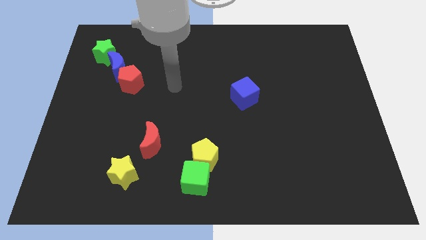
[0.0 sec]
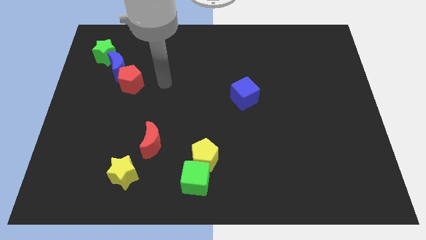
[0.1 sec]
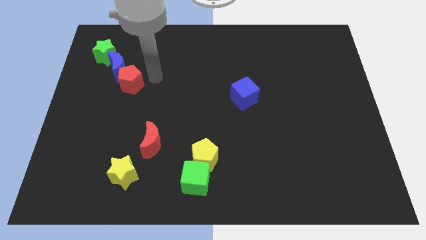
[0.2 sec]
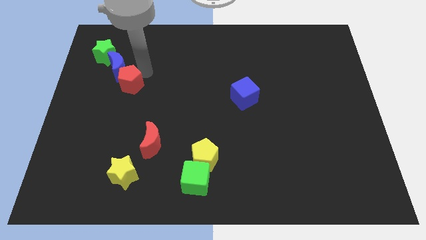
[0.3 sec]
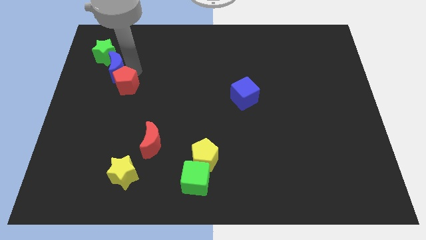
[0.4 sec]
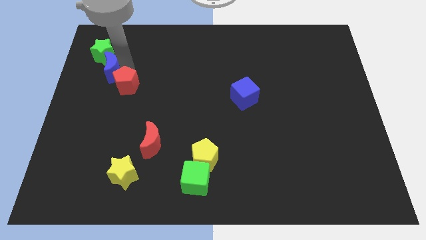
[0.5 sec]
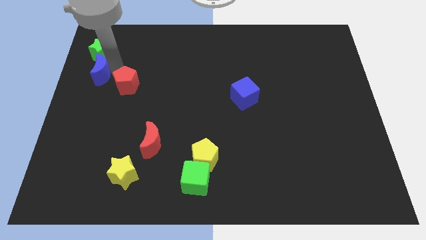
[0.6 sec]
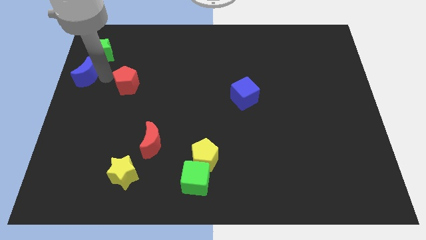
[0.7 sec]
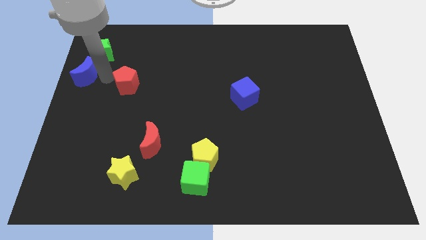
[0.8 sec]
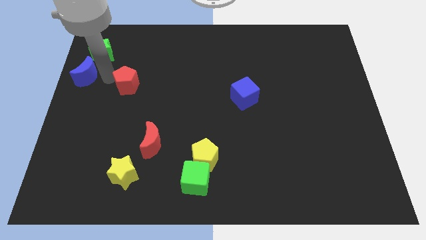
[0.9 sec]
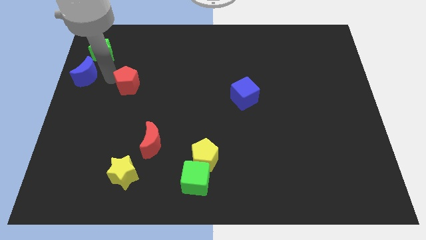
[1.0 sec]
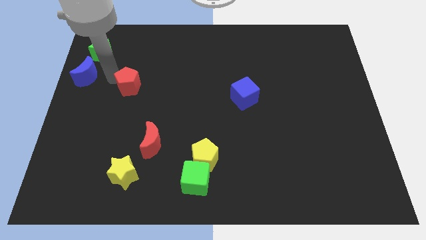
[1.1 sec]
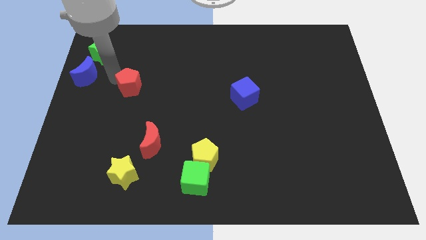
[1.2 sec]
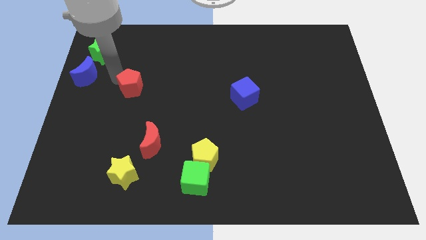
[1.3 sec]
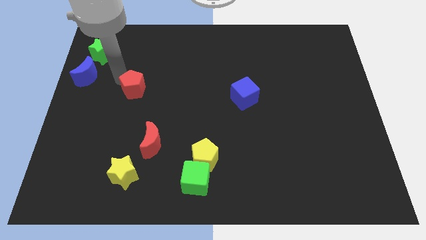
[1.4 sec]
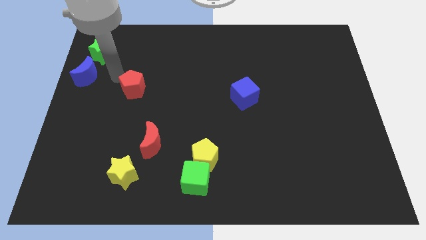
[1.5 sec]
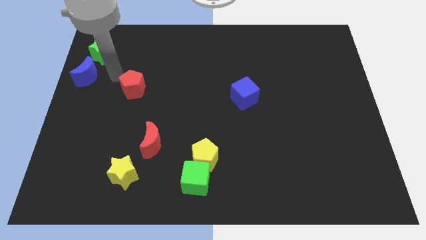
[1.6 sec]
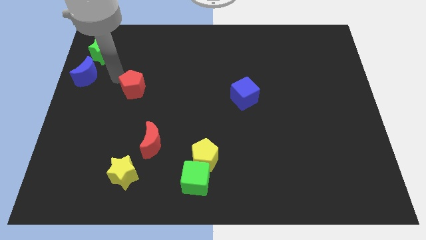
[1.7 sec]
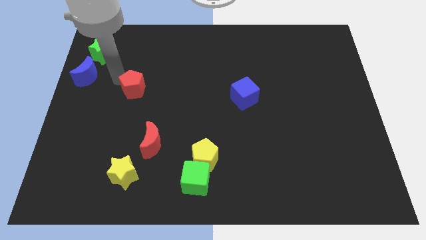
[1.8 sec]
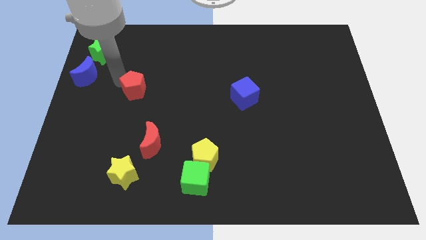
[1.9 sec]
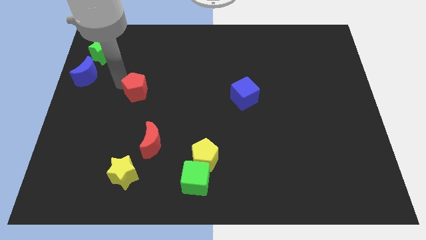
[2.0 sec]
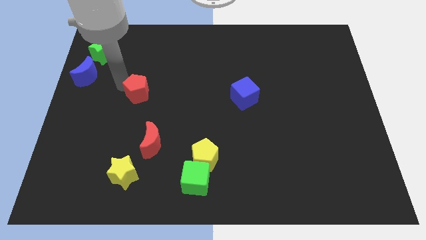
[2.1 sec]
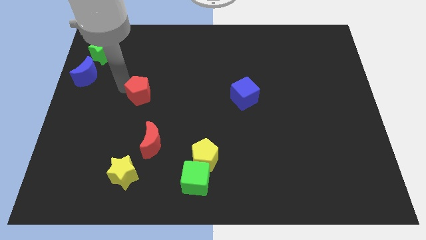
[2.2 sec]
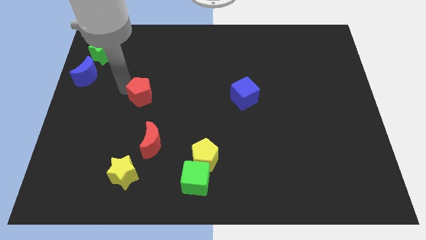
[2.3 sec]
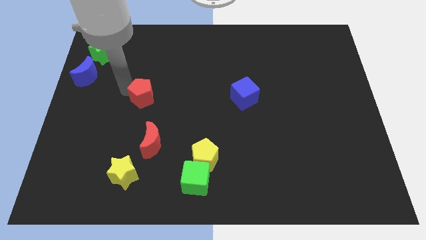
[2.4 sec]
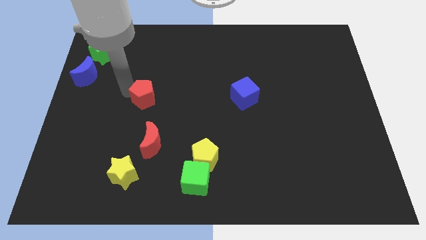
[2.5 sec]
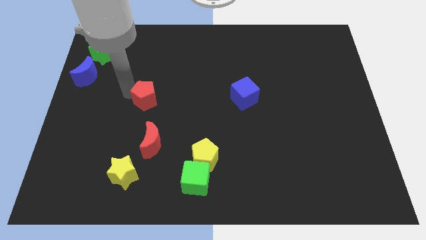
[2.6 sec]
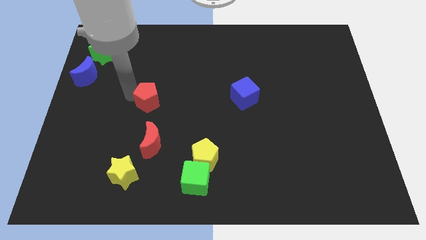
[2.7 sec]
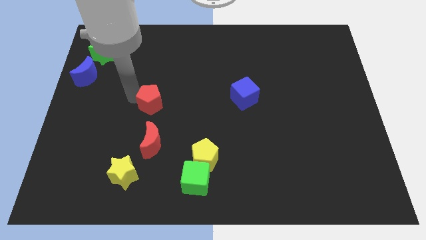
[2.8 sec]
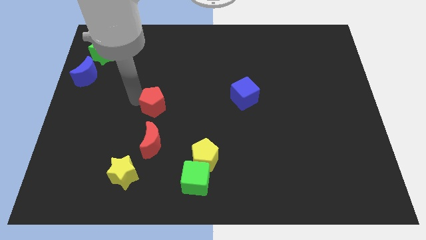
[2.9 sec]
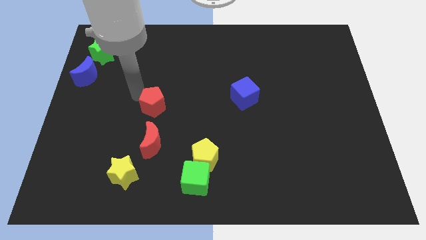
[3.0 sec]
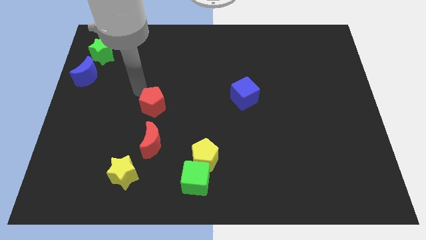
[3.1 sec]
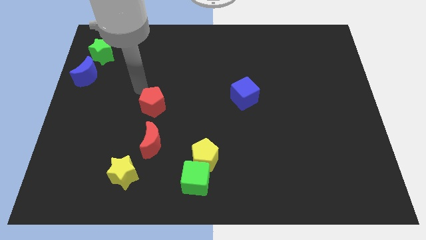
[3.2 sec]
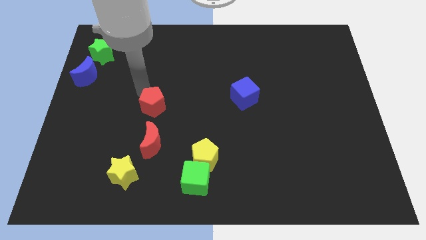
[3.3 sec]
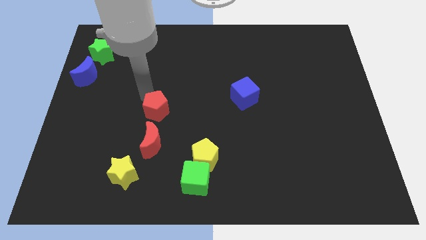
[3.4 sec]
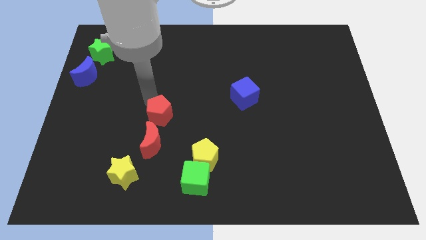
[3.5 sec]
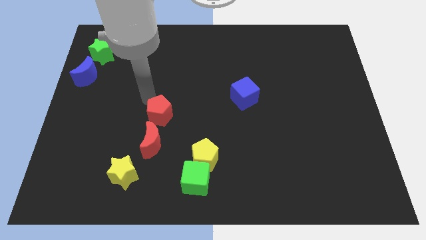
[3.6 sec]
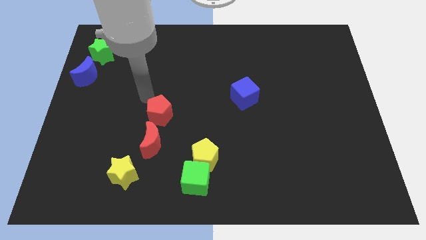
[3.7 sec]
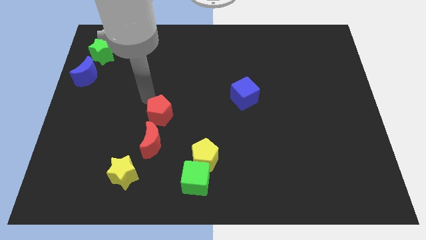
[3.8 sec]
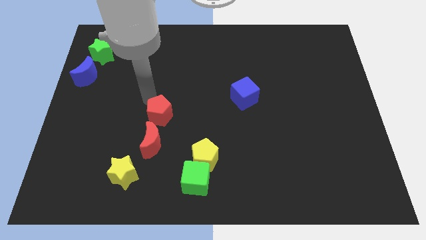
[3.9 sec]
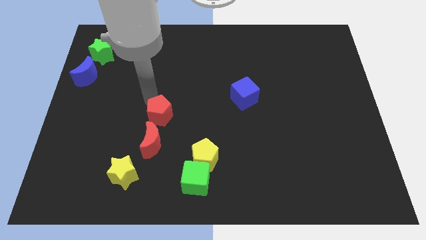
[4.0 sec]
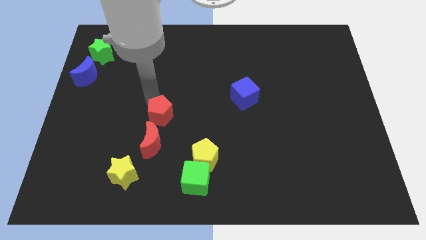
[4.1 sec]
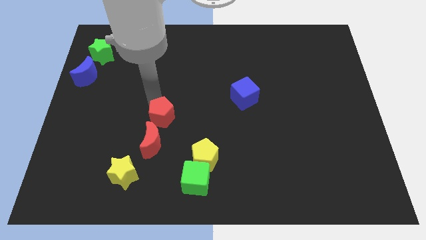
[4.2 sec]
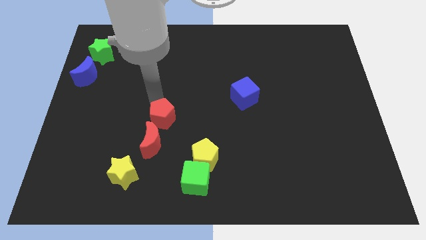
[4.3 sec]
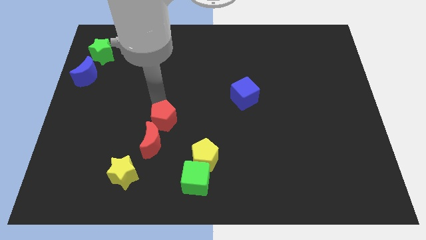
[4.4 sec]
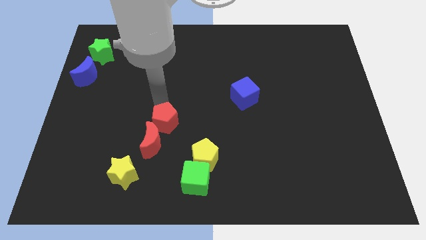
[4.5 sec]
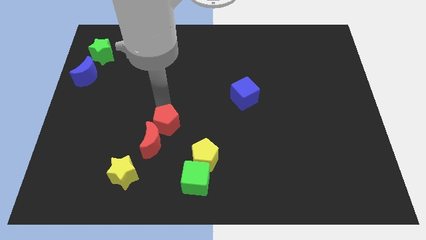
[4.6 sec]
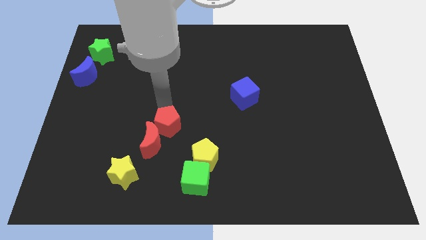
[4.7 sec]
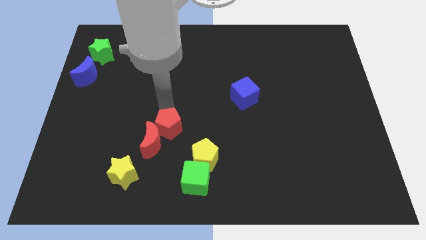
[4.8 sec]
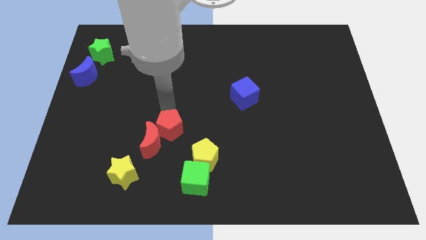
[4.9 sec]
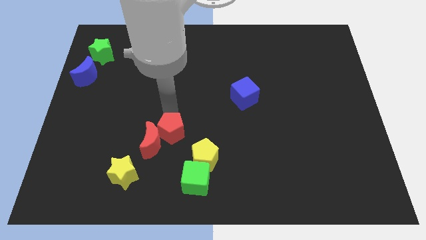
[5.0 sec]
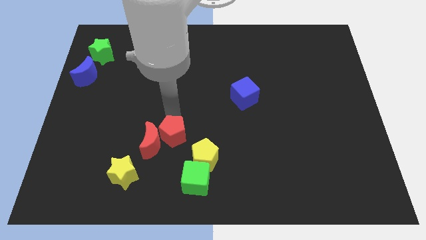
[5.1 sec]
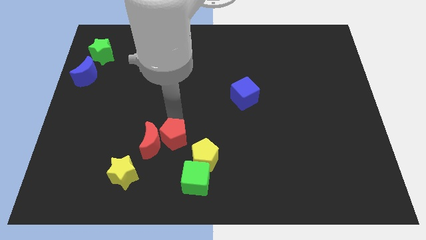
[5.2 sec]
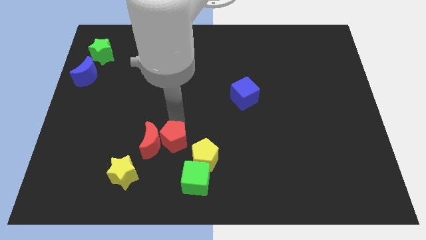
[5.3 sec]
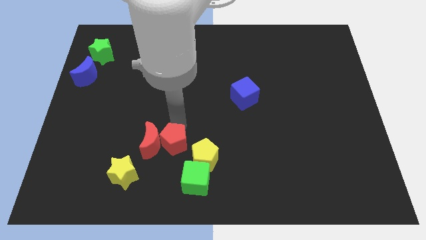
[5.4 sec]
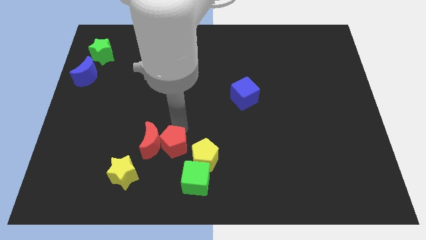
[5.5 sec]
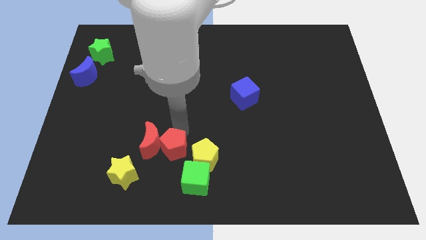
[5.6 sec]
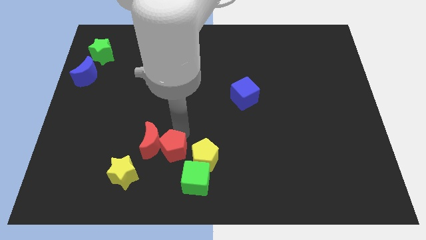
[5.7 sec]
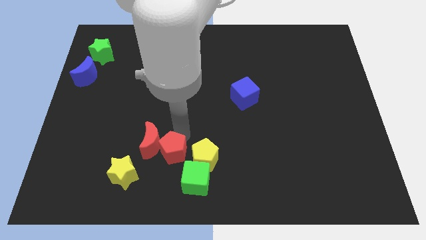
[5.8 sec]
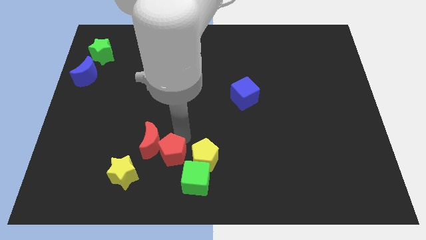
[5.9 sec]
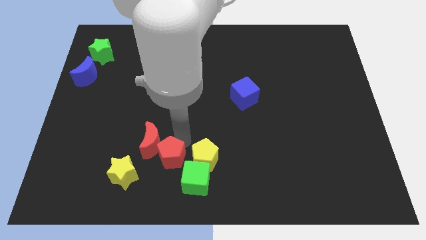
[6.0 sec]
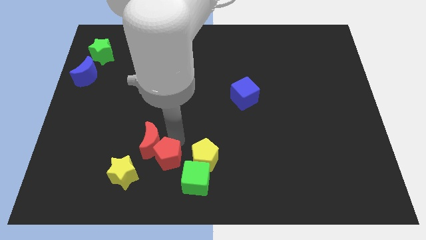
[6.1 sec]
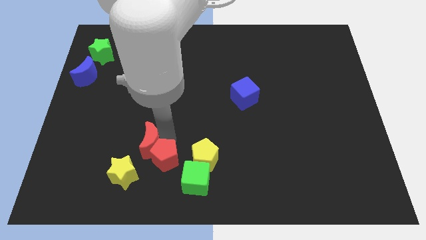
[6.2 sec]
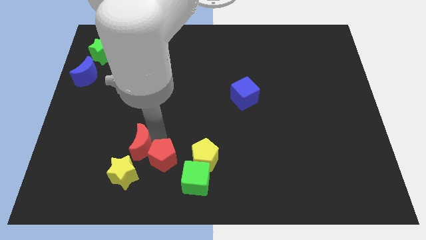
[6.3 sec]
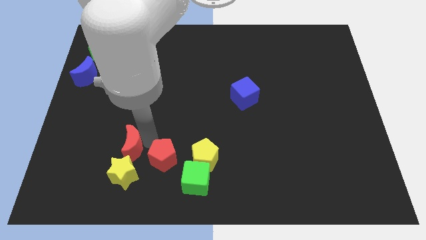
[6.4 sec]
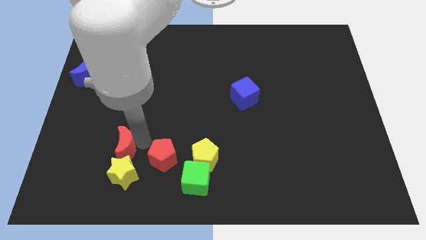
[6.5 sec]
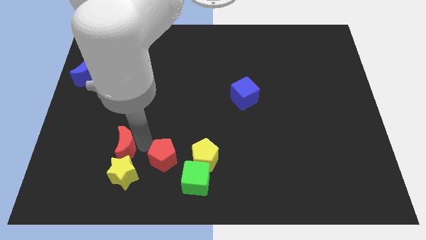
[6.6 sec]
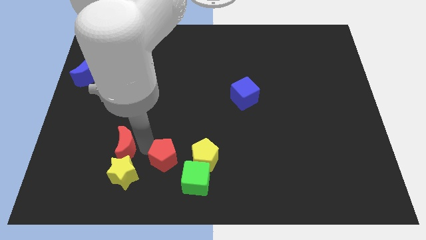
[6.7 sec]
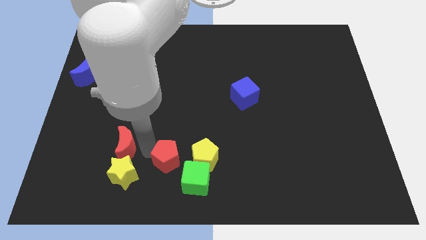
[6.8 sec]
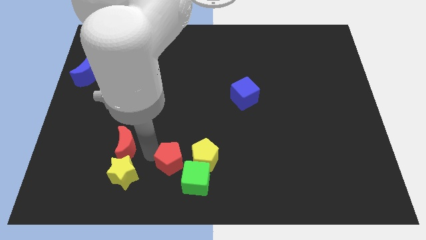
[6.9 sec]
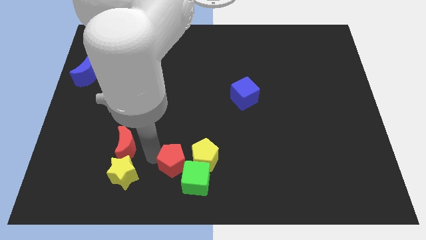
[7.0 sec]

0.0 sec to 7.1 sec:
push the red pentagon towards the green cube

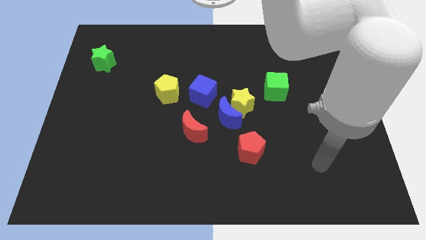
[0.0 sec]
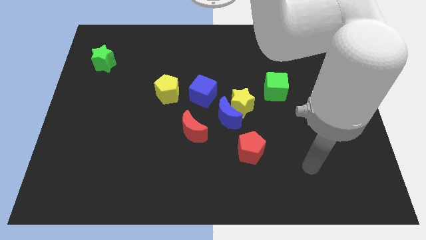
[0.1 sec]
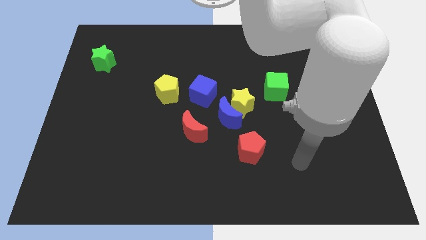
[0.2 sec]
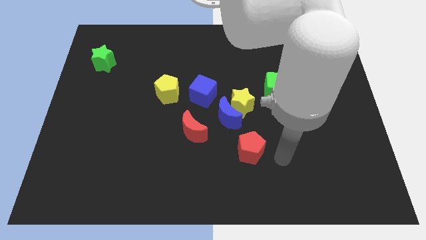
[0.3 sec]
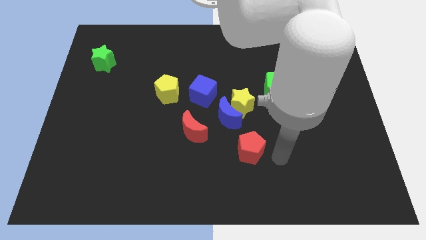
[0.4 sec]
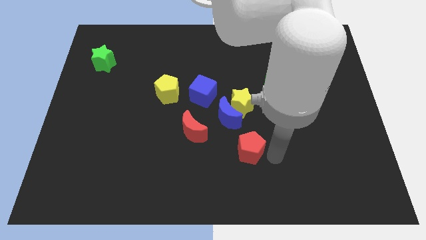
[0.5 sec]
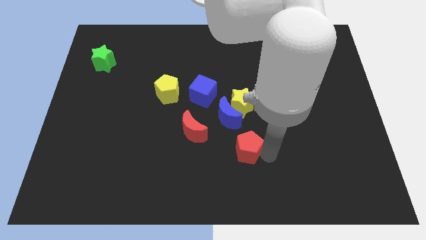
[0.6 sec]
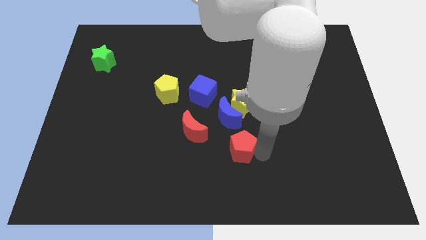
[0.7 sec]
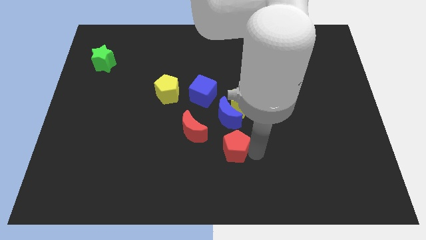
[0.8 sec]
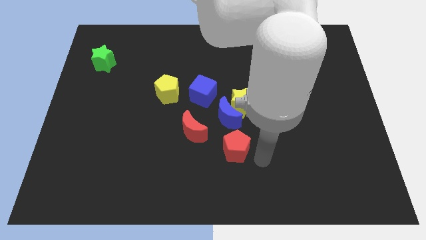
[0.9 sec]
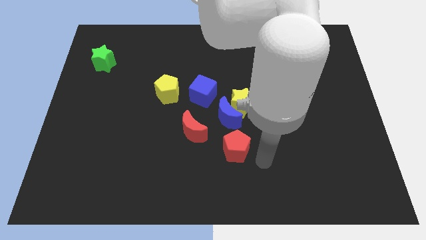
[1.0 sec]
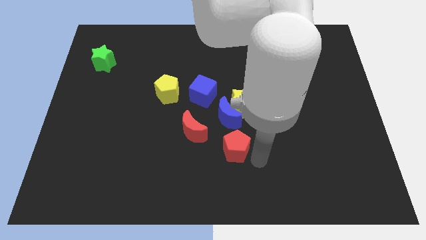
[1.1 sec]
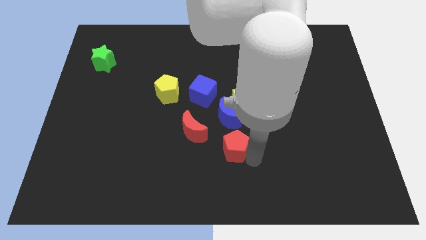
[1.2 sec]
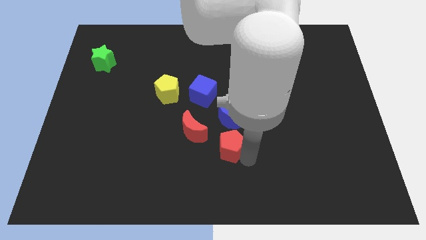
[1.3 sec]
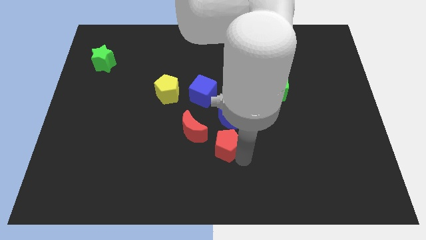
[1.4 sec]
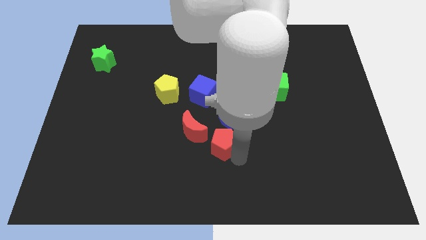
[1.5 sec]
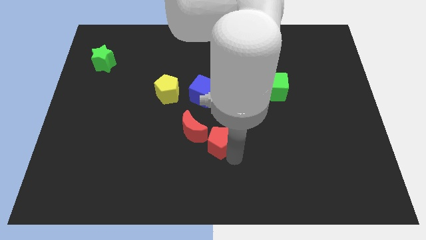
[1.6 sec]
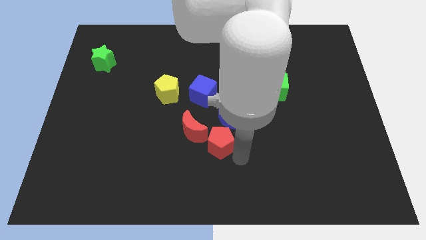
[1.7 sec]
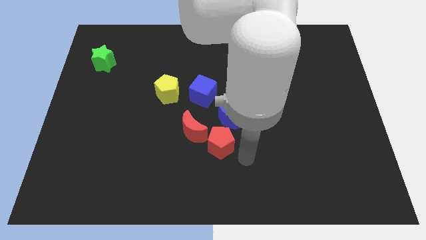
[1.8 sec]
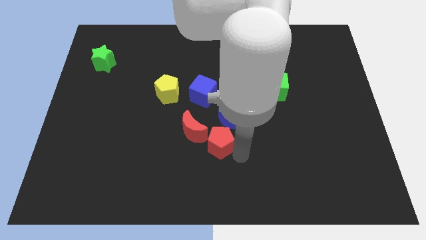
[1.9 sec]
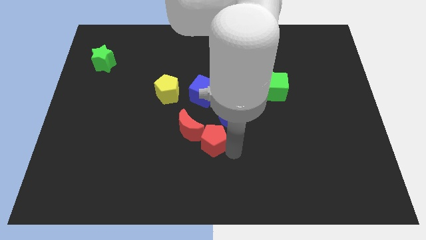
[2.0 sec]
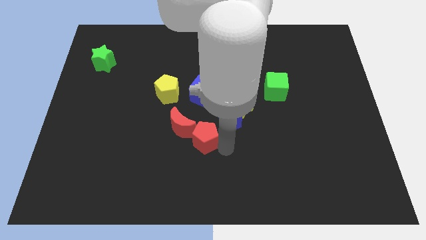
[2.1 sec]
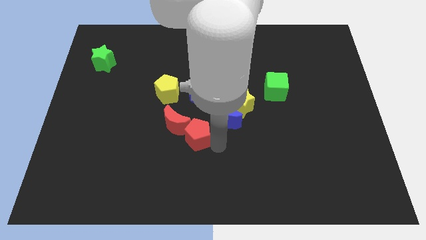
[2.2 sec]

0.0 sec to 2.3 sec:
put the red pentagon close to the red moon
